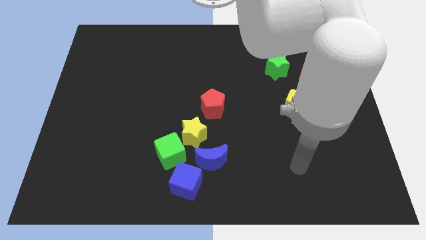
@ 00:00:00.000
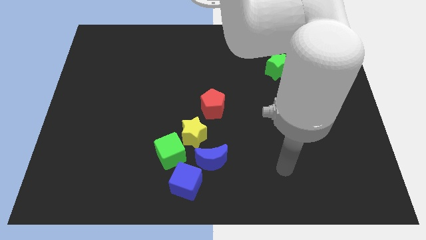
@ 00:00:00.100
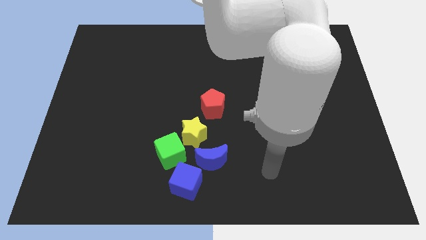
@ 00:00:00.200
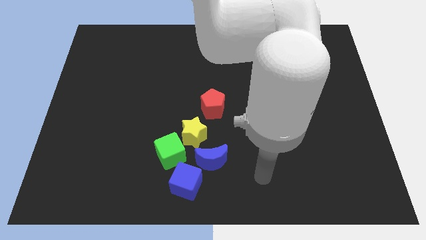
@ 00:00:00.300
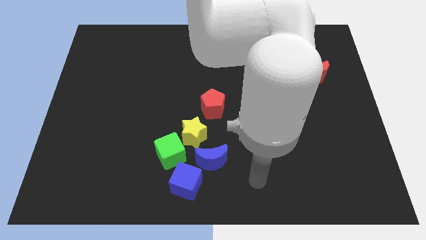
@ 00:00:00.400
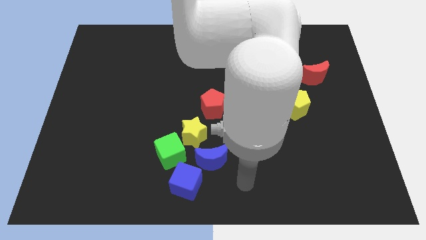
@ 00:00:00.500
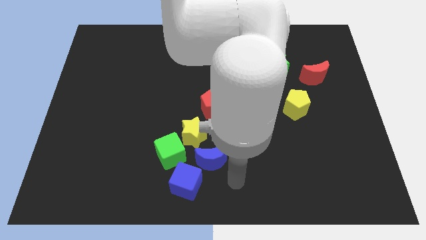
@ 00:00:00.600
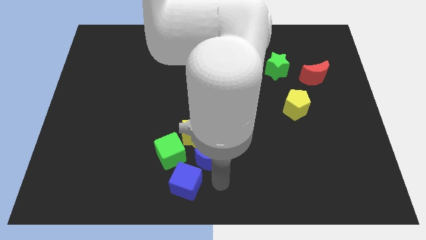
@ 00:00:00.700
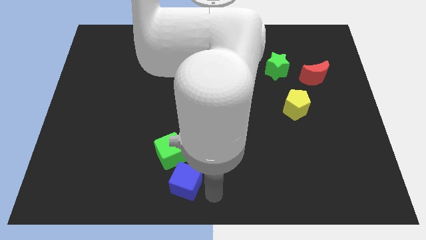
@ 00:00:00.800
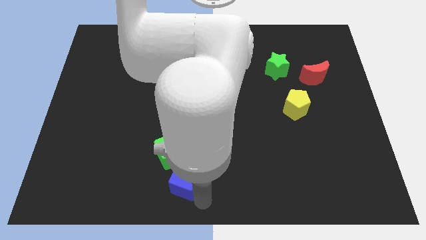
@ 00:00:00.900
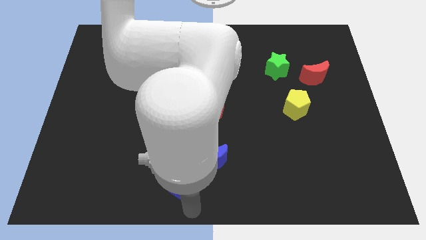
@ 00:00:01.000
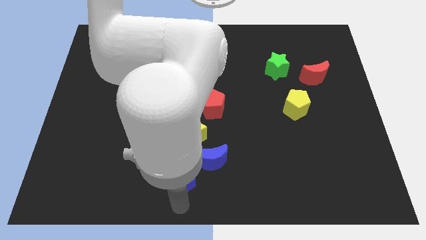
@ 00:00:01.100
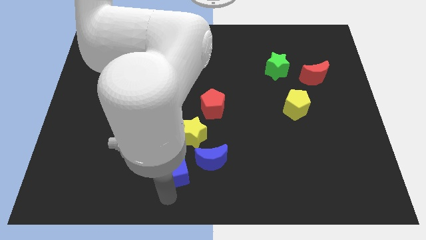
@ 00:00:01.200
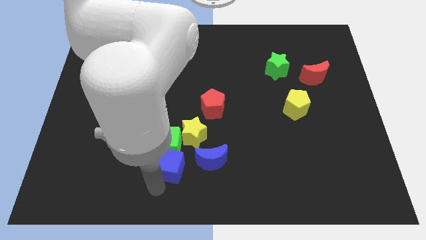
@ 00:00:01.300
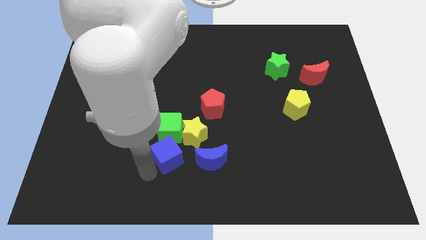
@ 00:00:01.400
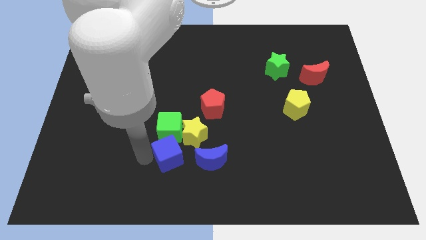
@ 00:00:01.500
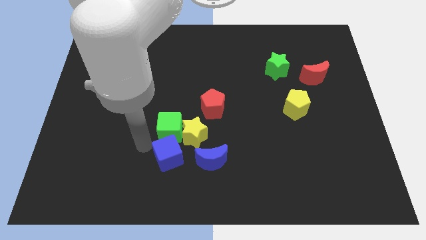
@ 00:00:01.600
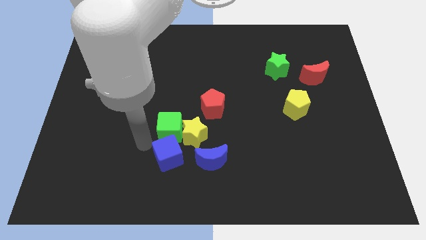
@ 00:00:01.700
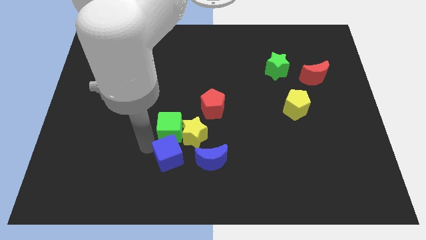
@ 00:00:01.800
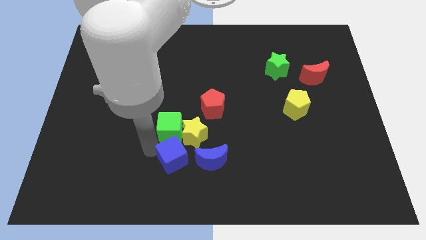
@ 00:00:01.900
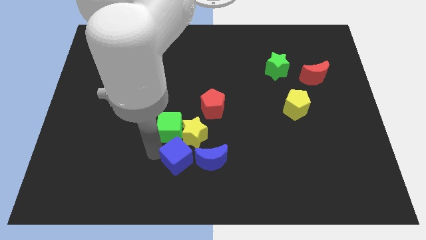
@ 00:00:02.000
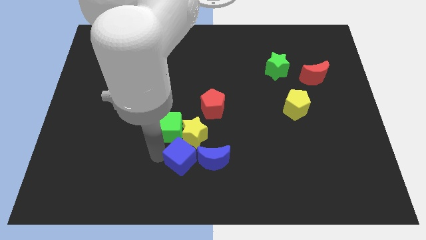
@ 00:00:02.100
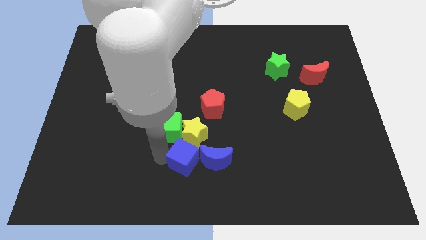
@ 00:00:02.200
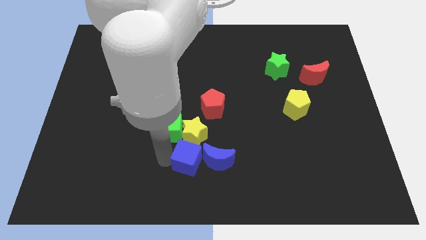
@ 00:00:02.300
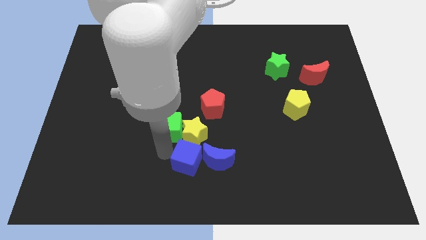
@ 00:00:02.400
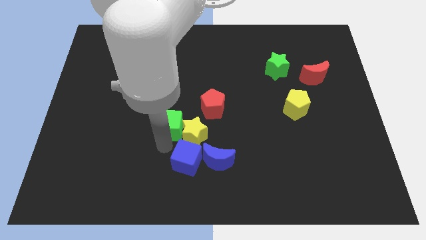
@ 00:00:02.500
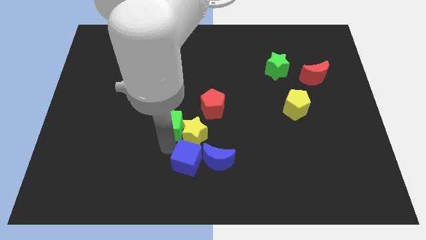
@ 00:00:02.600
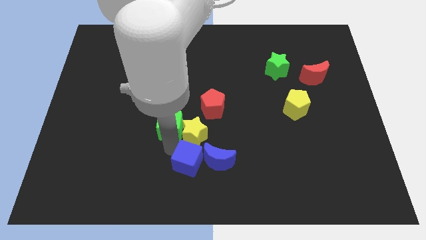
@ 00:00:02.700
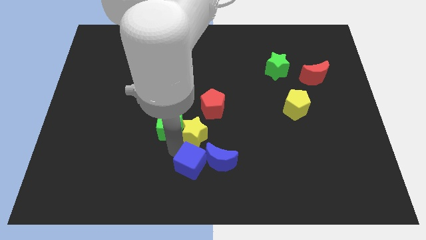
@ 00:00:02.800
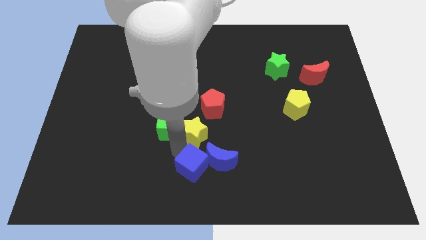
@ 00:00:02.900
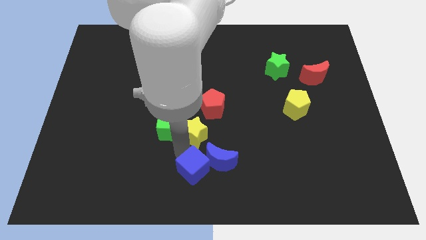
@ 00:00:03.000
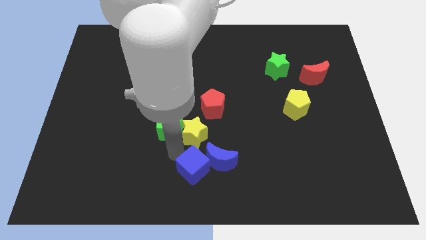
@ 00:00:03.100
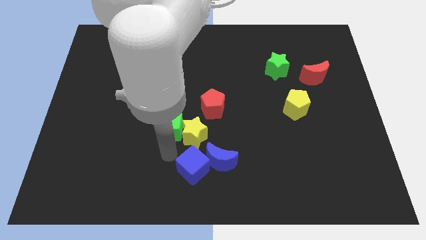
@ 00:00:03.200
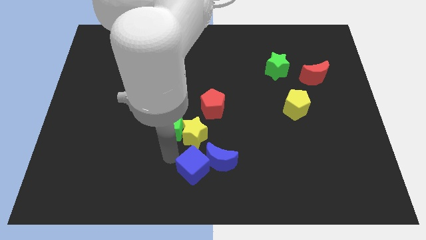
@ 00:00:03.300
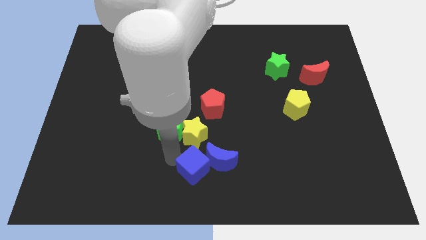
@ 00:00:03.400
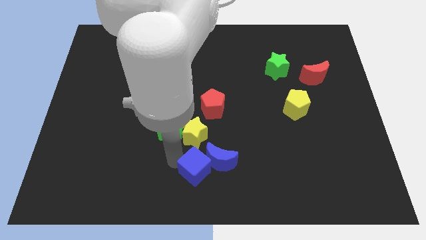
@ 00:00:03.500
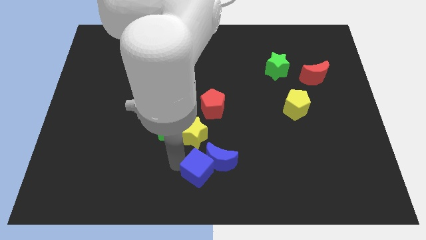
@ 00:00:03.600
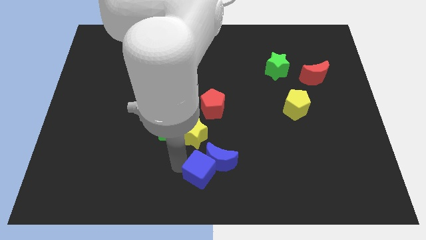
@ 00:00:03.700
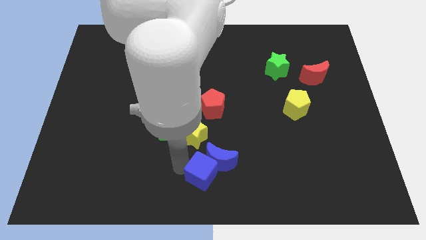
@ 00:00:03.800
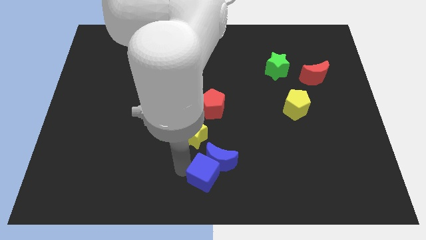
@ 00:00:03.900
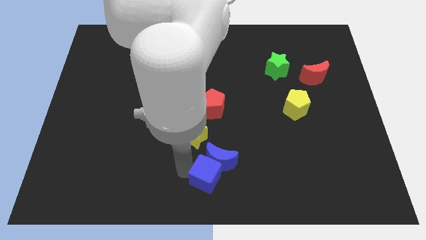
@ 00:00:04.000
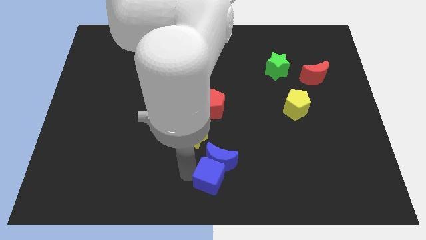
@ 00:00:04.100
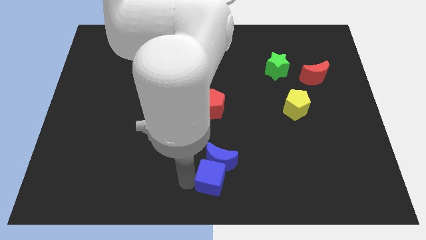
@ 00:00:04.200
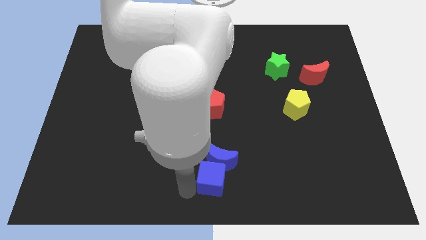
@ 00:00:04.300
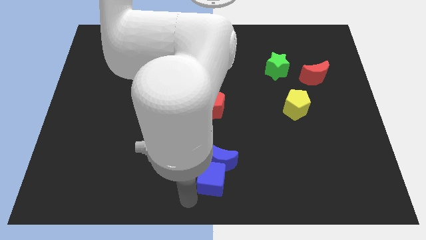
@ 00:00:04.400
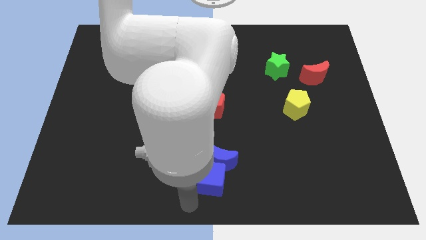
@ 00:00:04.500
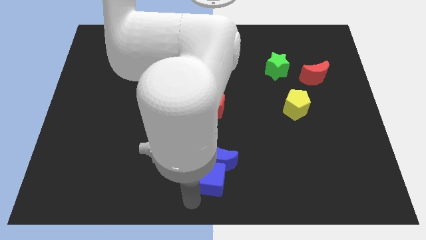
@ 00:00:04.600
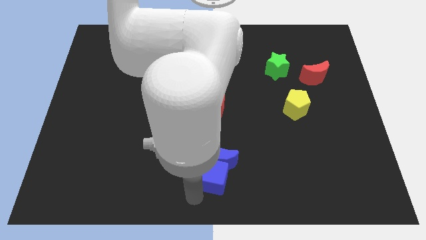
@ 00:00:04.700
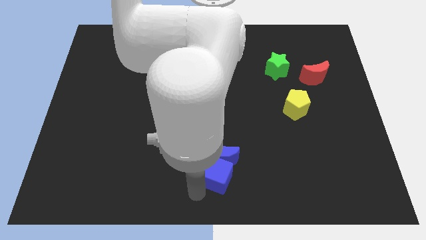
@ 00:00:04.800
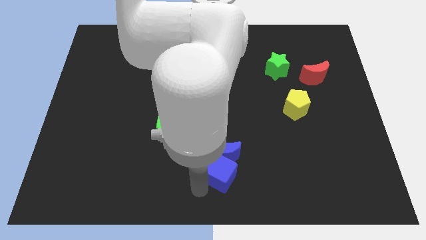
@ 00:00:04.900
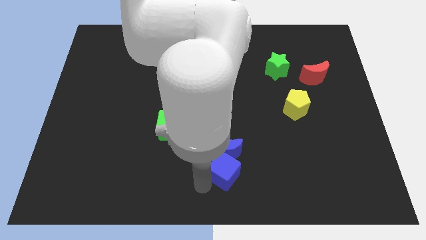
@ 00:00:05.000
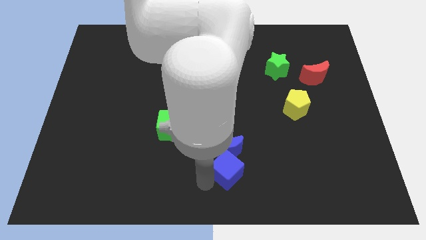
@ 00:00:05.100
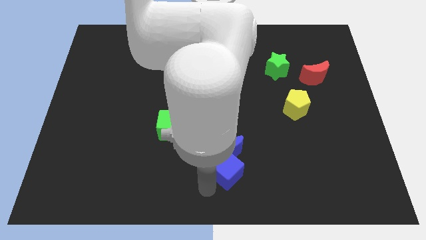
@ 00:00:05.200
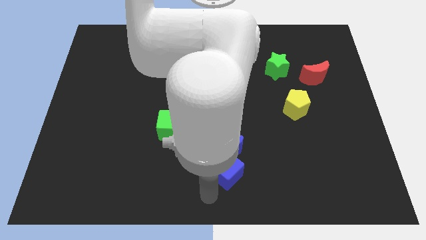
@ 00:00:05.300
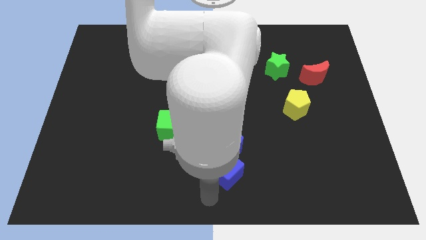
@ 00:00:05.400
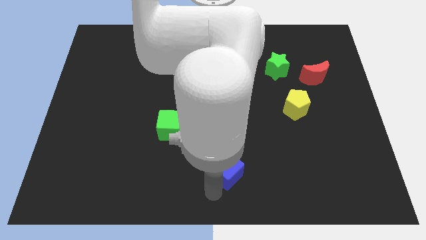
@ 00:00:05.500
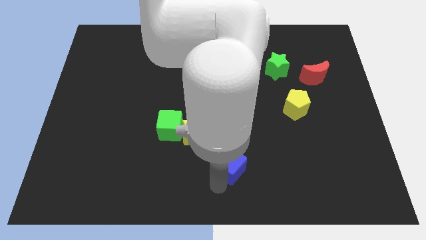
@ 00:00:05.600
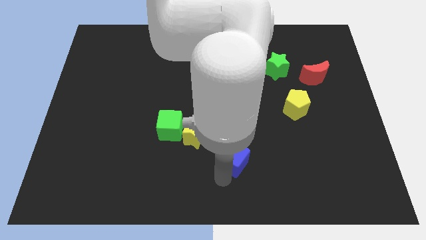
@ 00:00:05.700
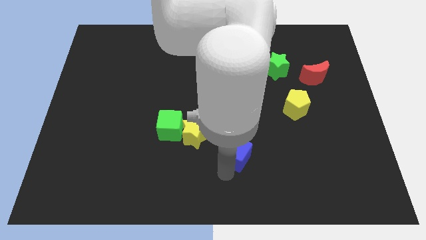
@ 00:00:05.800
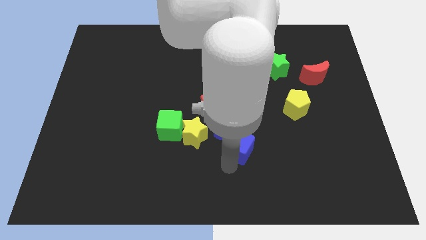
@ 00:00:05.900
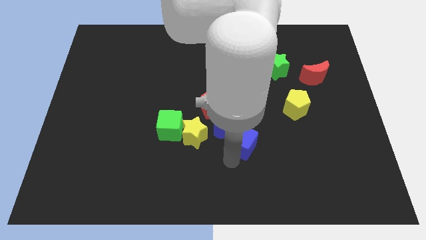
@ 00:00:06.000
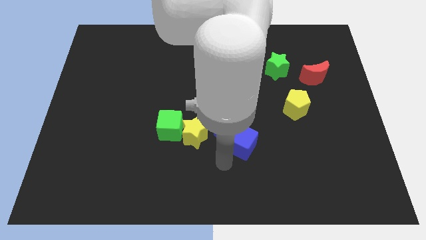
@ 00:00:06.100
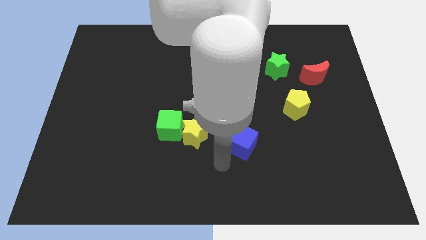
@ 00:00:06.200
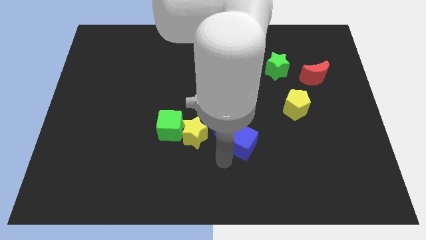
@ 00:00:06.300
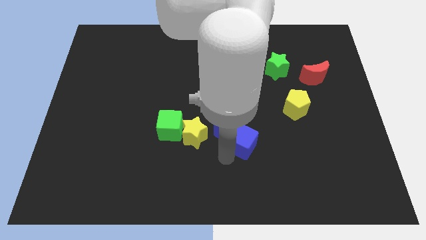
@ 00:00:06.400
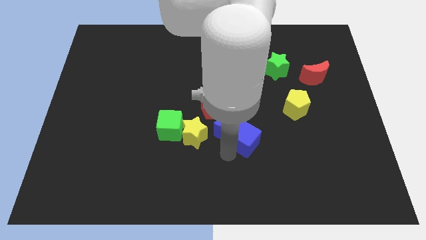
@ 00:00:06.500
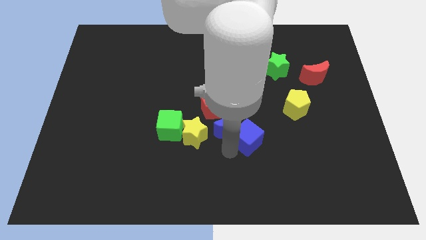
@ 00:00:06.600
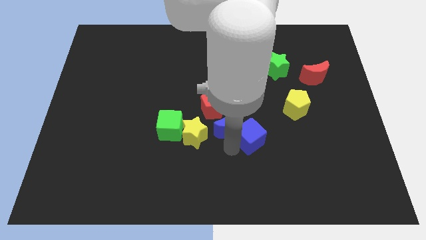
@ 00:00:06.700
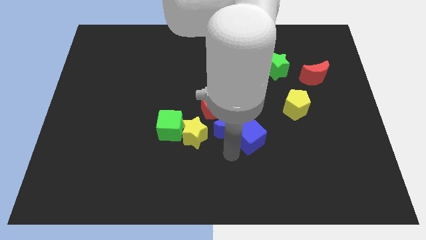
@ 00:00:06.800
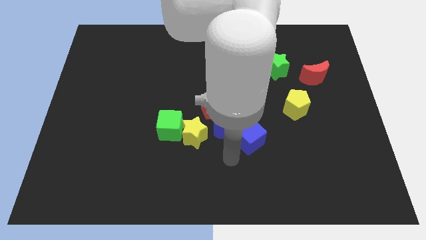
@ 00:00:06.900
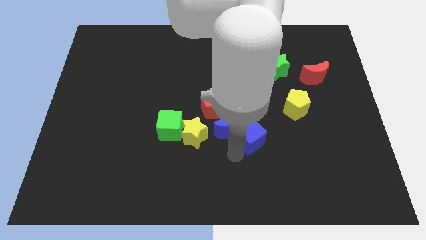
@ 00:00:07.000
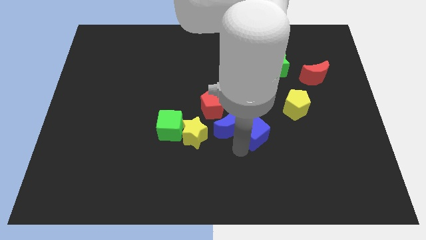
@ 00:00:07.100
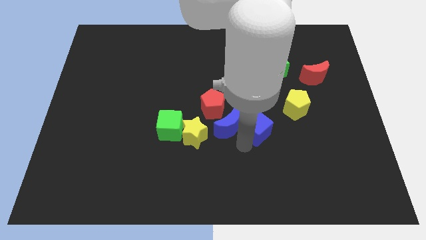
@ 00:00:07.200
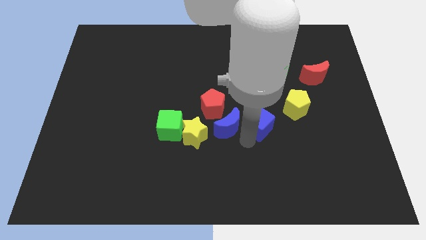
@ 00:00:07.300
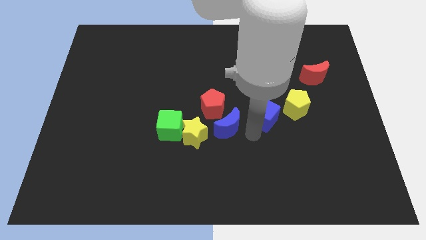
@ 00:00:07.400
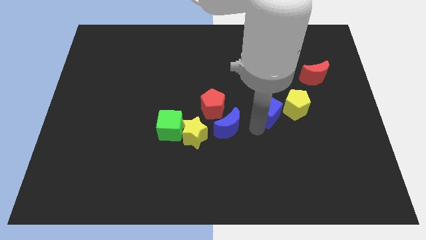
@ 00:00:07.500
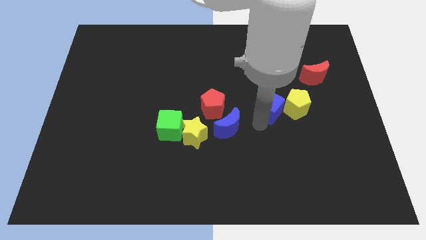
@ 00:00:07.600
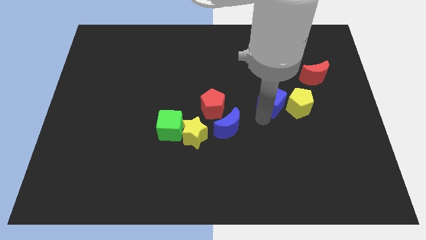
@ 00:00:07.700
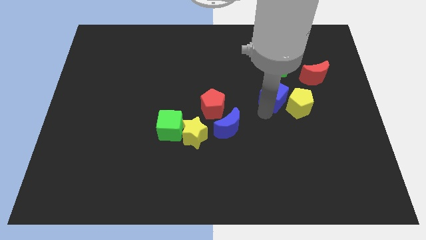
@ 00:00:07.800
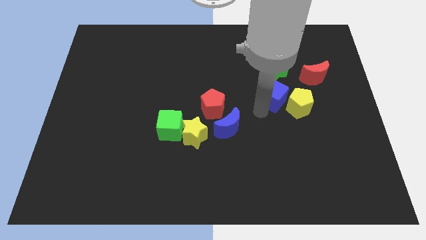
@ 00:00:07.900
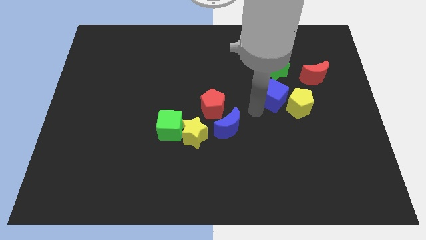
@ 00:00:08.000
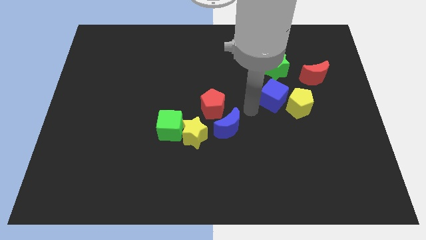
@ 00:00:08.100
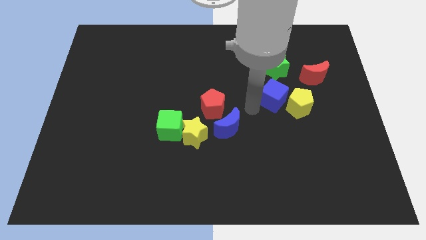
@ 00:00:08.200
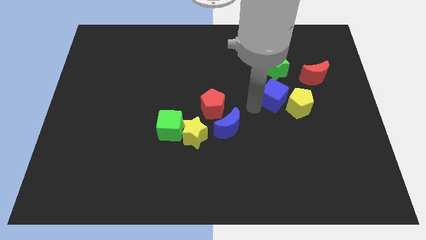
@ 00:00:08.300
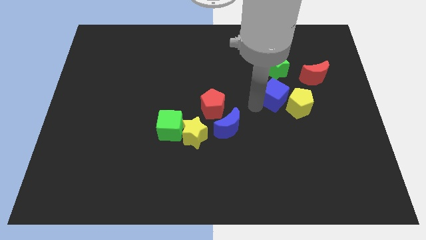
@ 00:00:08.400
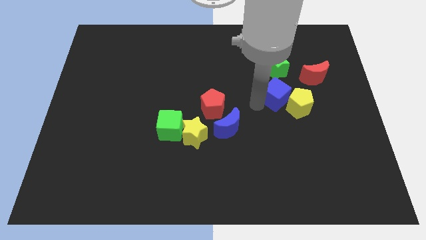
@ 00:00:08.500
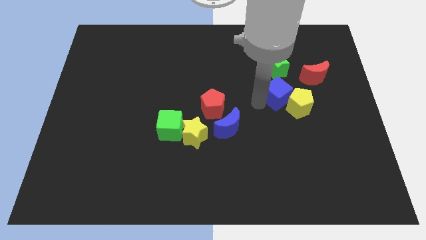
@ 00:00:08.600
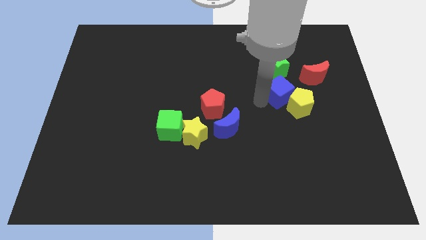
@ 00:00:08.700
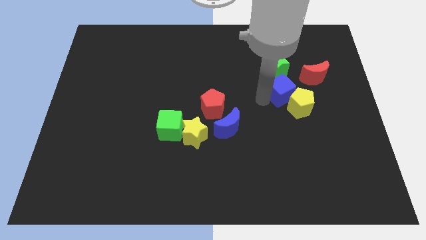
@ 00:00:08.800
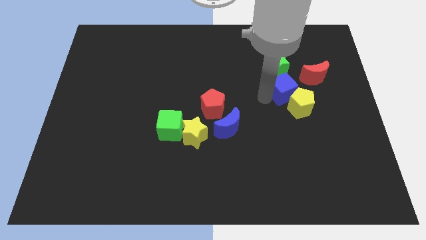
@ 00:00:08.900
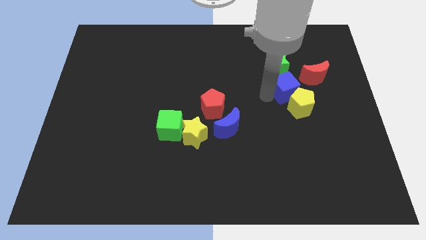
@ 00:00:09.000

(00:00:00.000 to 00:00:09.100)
put the blue cube diagonally down and to the right of the green star
